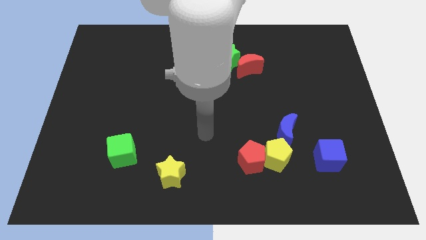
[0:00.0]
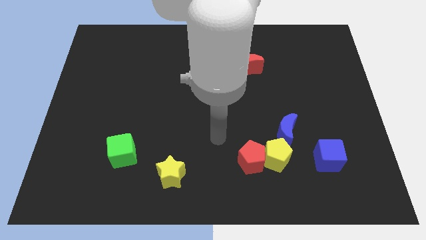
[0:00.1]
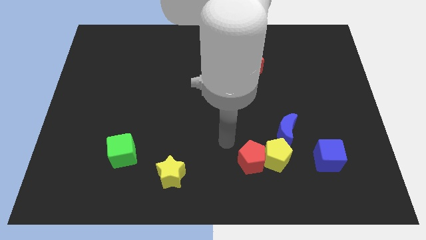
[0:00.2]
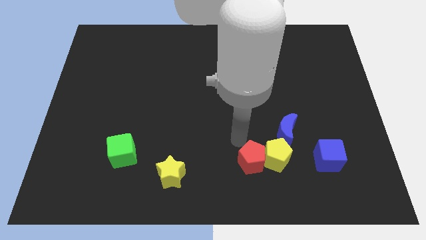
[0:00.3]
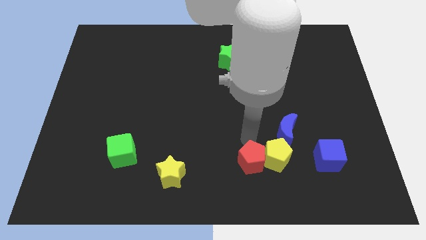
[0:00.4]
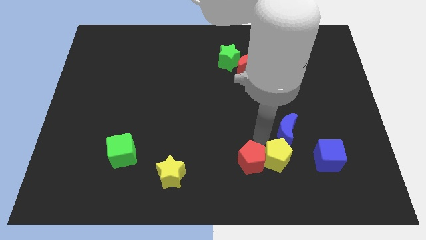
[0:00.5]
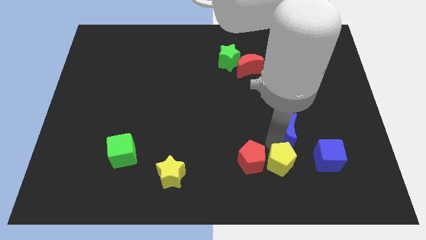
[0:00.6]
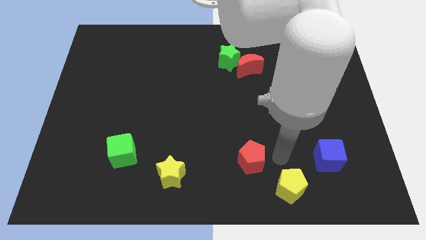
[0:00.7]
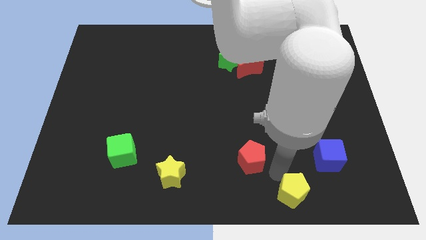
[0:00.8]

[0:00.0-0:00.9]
separate the red pentagon from the yellow pentagon

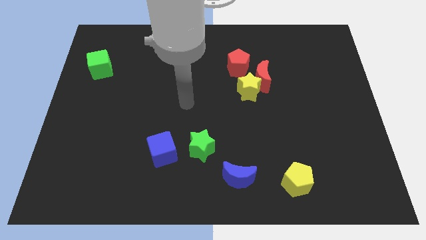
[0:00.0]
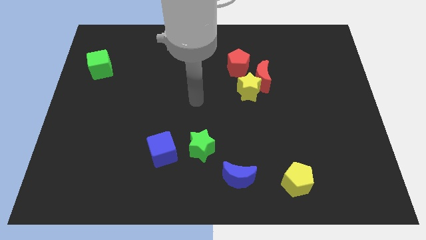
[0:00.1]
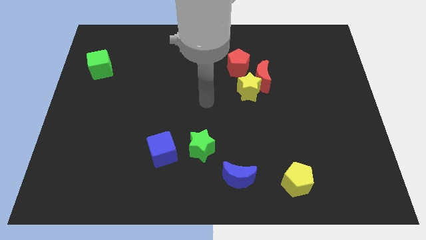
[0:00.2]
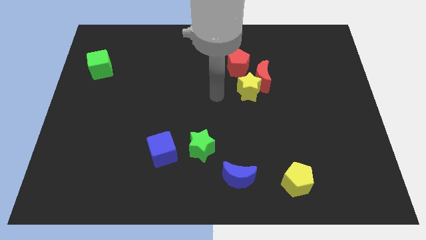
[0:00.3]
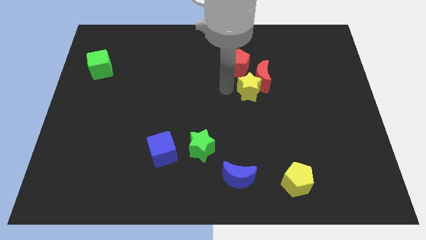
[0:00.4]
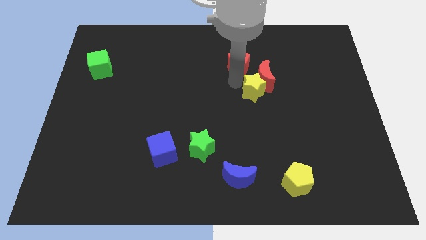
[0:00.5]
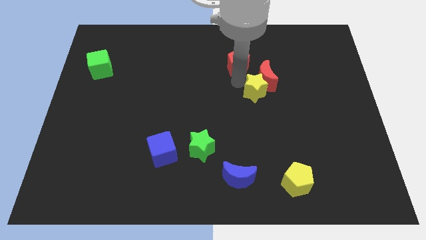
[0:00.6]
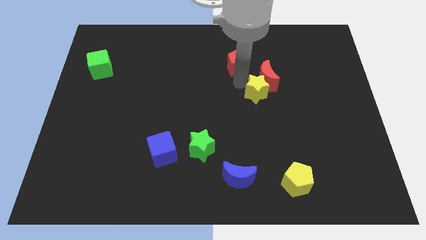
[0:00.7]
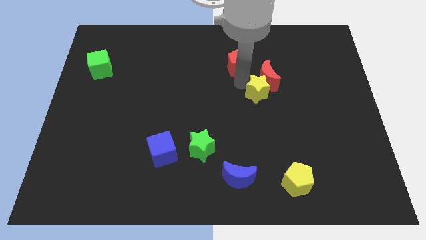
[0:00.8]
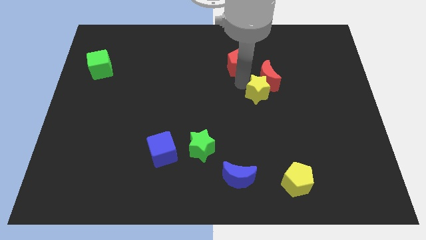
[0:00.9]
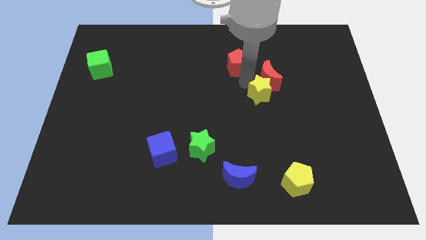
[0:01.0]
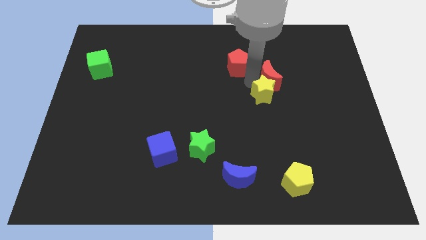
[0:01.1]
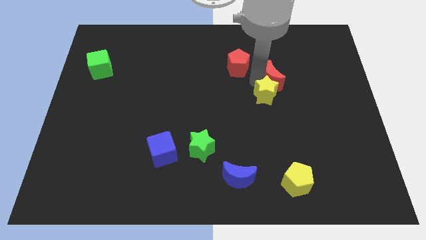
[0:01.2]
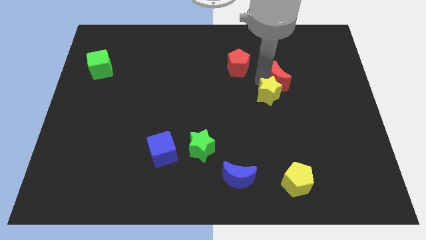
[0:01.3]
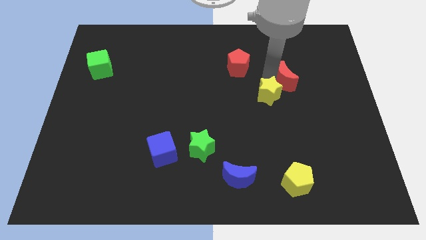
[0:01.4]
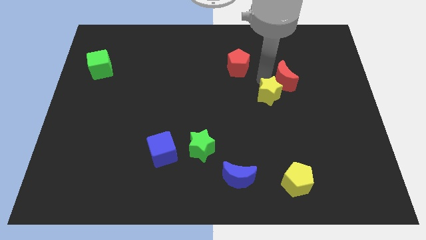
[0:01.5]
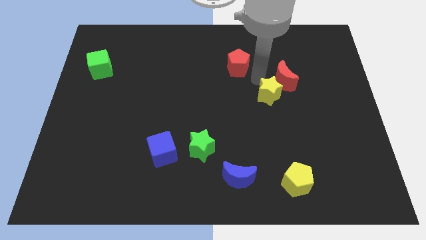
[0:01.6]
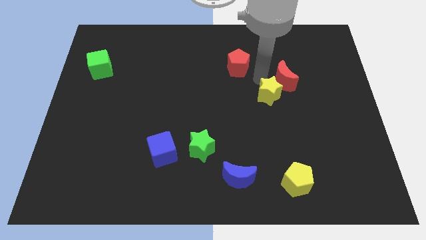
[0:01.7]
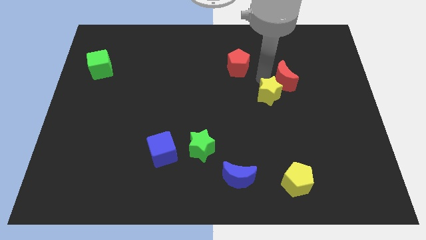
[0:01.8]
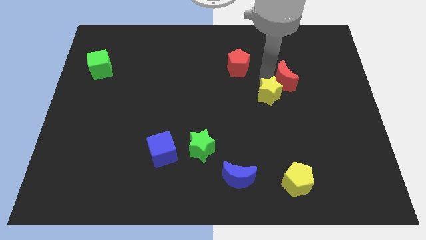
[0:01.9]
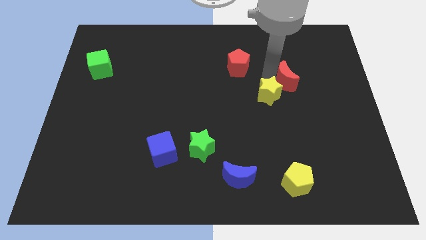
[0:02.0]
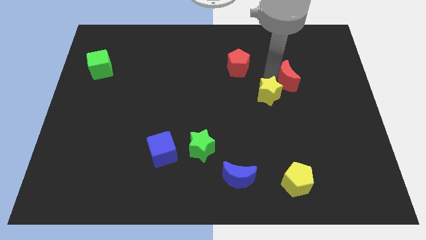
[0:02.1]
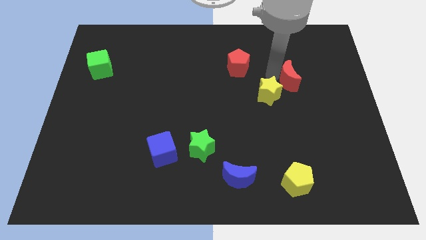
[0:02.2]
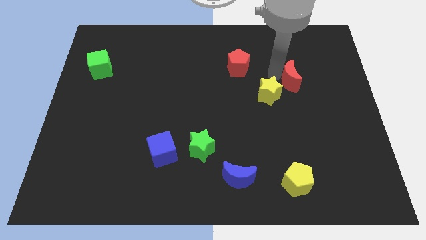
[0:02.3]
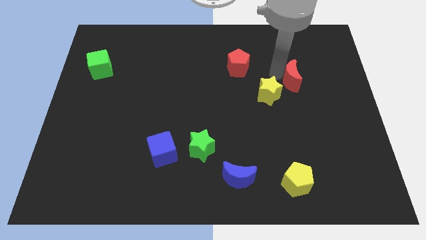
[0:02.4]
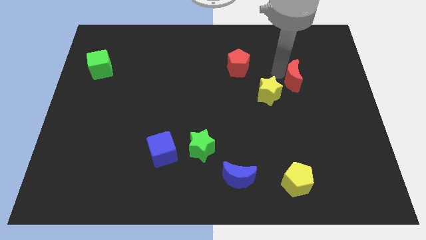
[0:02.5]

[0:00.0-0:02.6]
move the red moon away from the yellow star and red pentagon

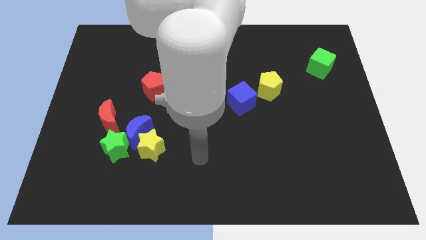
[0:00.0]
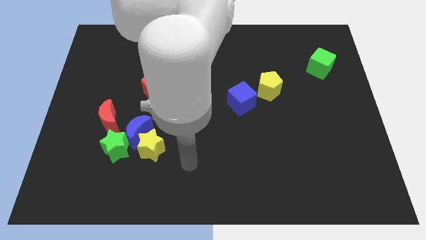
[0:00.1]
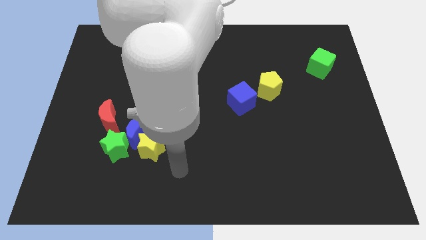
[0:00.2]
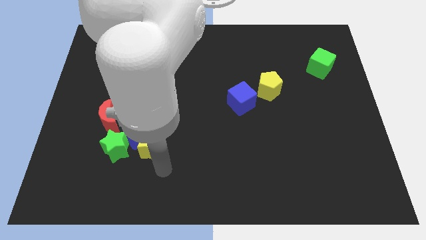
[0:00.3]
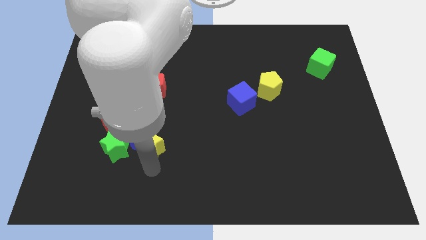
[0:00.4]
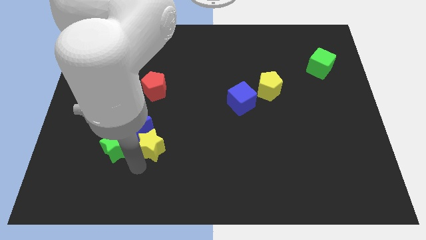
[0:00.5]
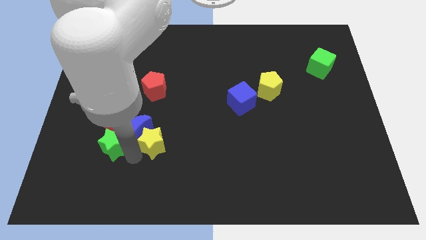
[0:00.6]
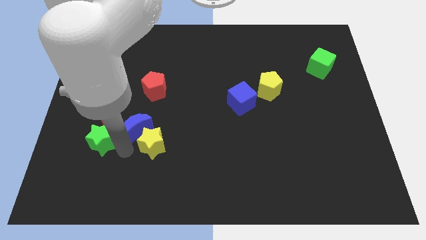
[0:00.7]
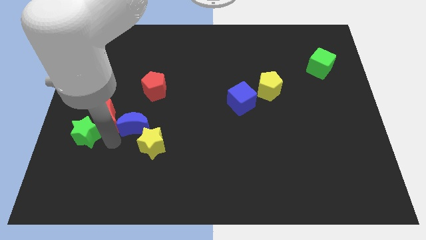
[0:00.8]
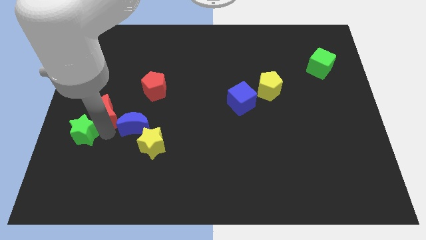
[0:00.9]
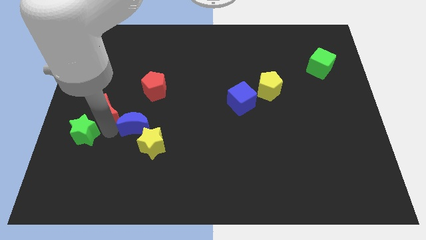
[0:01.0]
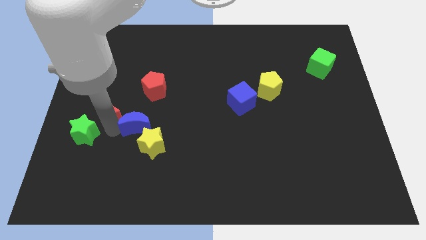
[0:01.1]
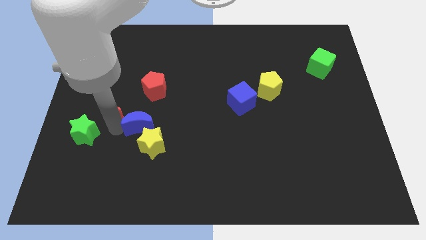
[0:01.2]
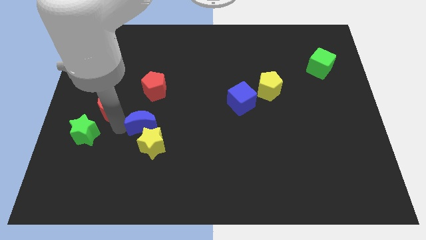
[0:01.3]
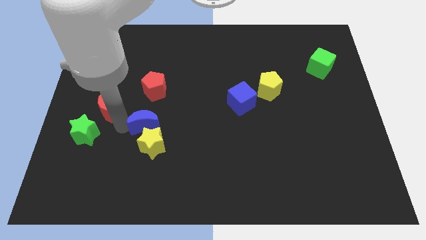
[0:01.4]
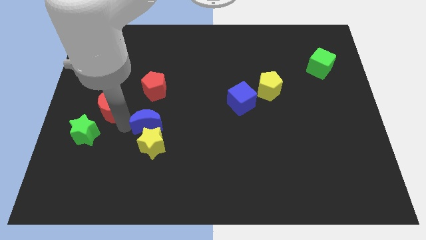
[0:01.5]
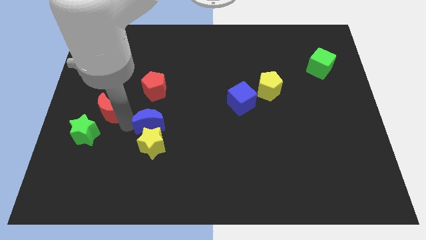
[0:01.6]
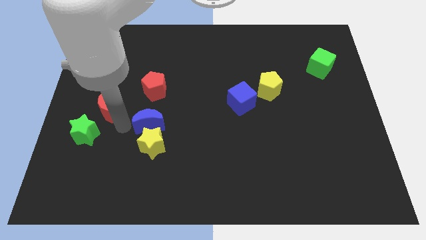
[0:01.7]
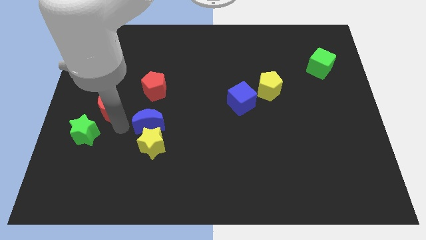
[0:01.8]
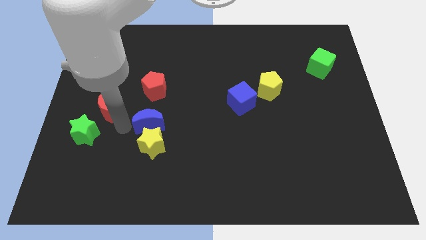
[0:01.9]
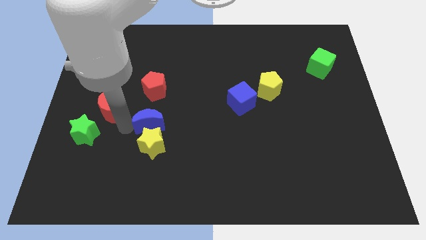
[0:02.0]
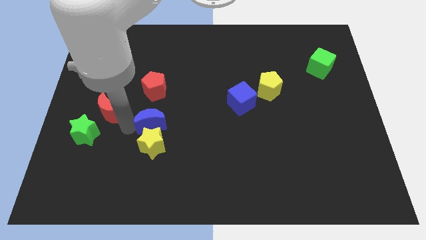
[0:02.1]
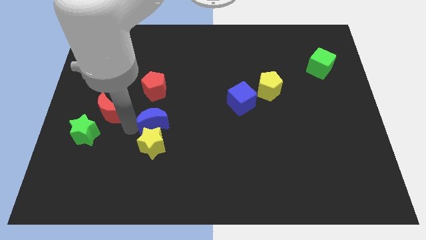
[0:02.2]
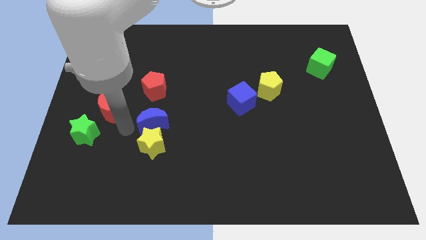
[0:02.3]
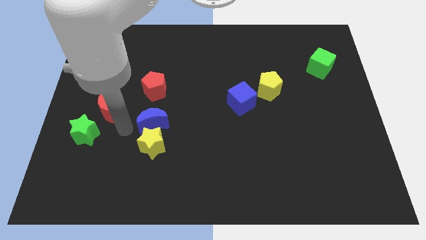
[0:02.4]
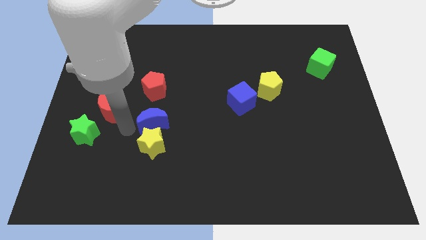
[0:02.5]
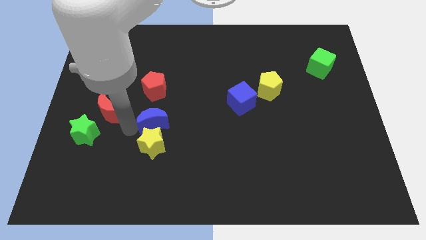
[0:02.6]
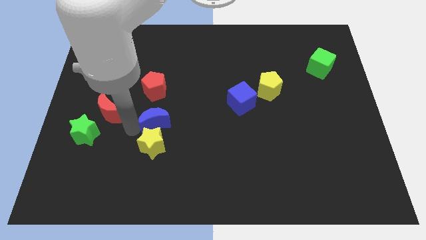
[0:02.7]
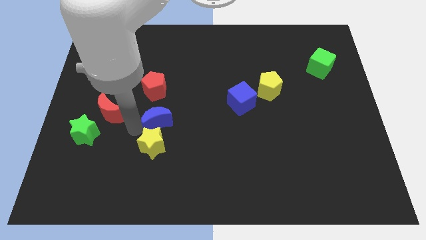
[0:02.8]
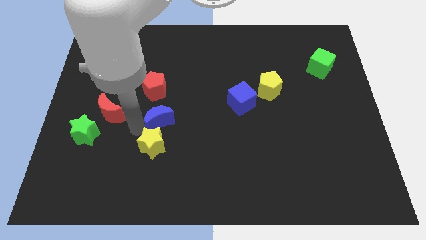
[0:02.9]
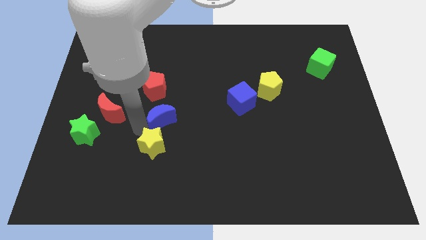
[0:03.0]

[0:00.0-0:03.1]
move the blue moon away from the group of blocks

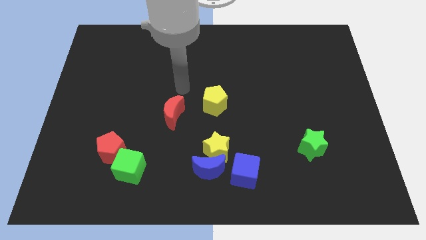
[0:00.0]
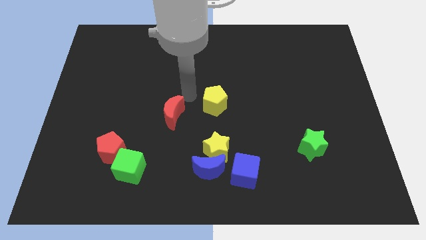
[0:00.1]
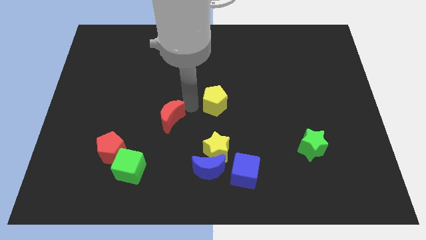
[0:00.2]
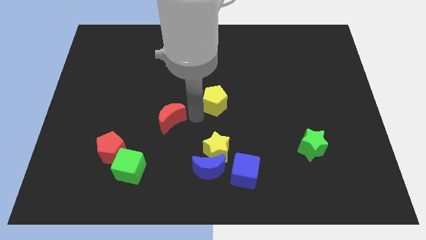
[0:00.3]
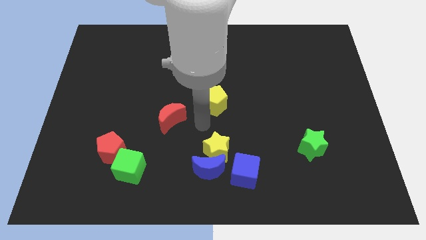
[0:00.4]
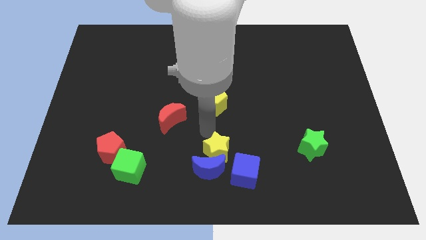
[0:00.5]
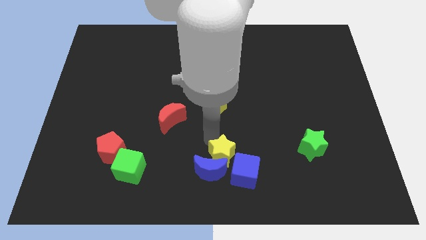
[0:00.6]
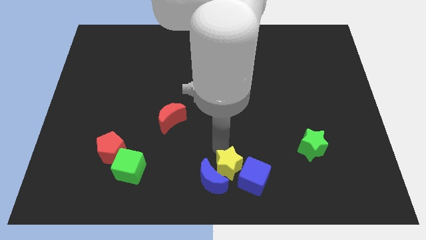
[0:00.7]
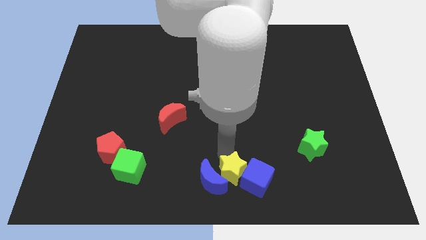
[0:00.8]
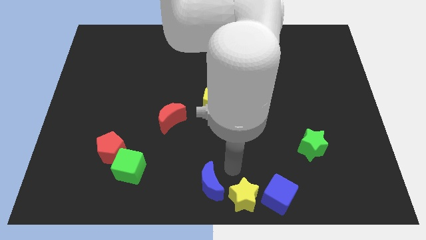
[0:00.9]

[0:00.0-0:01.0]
pull the blue moon apart from the yellow star and blue cube

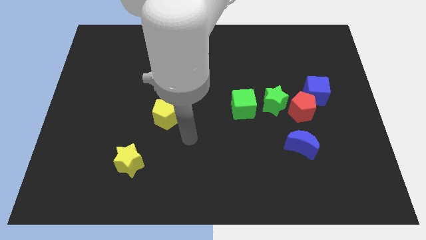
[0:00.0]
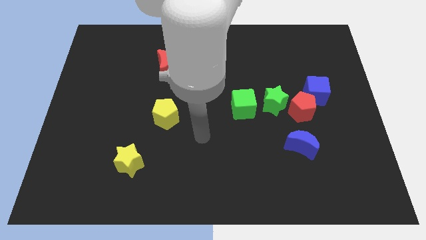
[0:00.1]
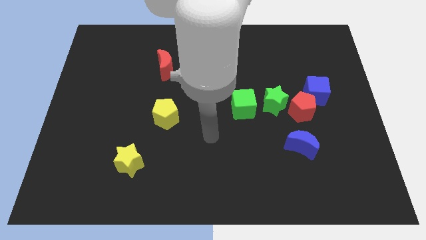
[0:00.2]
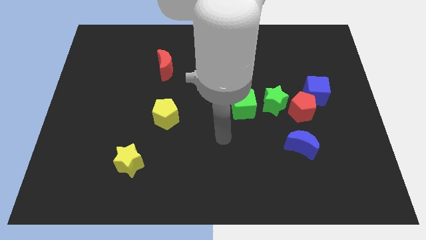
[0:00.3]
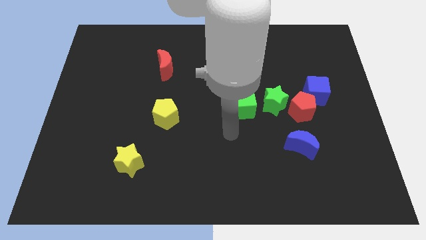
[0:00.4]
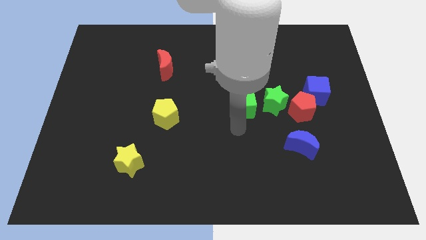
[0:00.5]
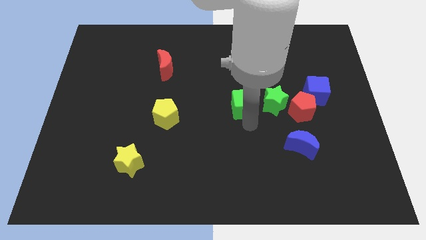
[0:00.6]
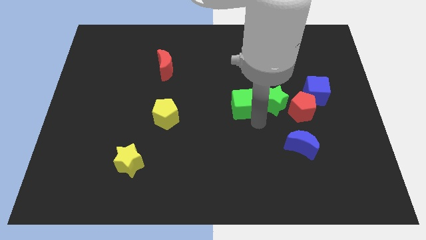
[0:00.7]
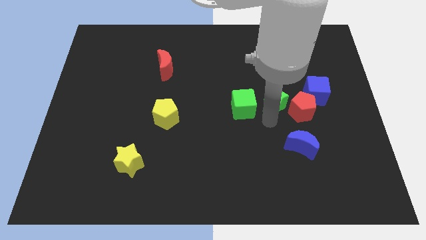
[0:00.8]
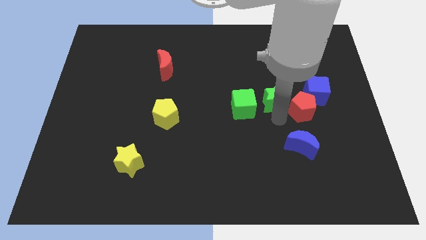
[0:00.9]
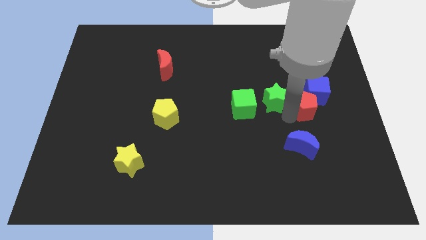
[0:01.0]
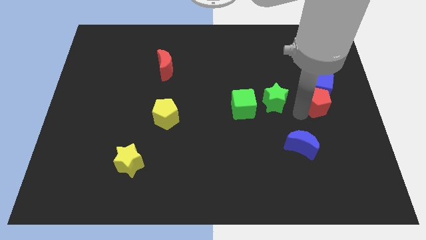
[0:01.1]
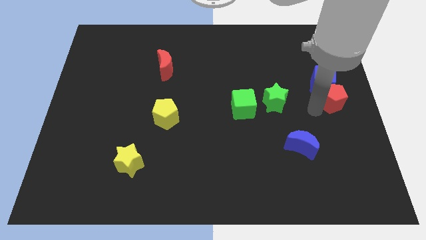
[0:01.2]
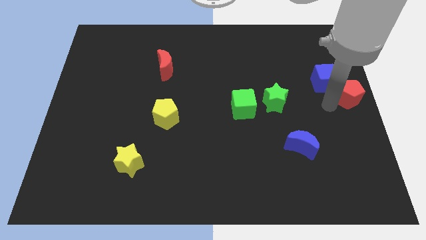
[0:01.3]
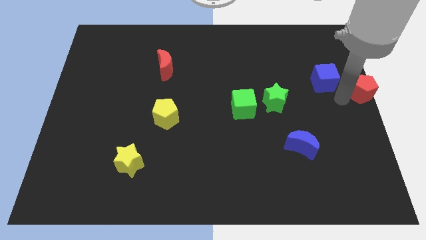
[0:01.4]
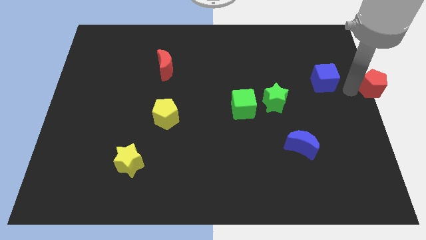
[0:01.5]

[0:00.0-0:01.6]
pull the blue cube apart from the red pentagon

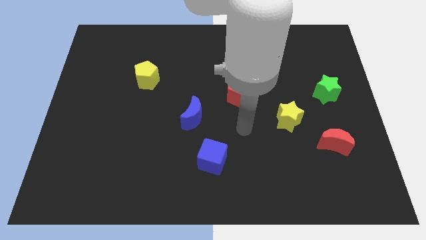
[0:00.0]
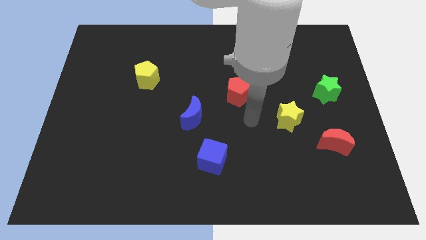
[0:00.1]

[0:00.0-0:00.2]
pull the red pentagon apart from the green cube
